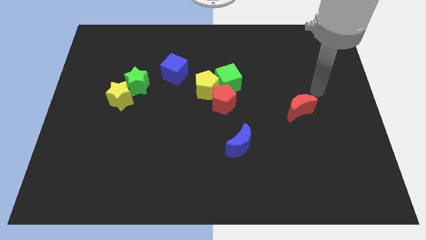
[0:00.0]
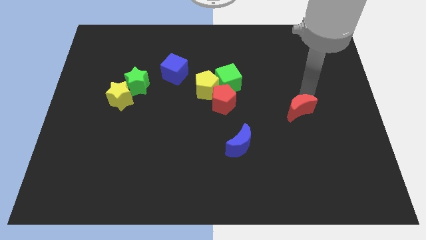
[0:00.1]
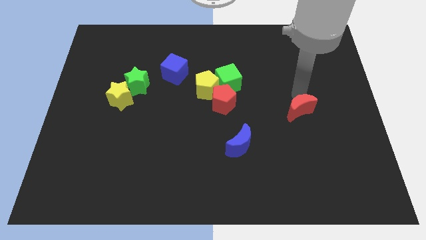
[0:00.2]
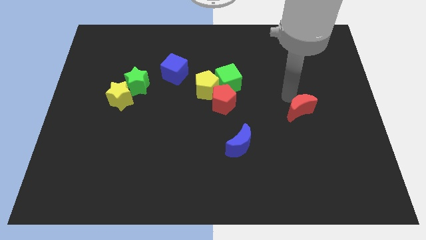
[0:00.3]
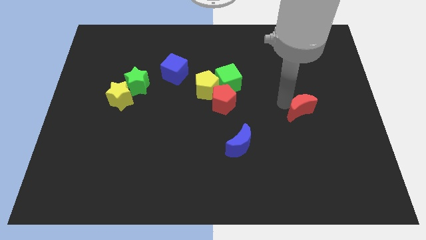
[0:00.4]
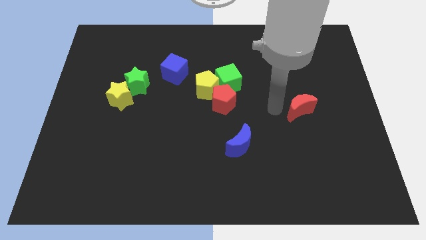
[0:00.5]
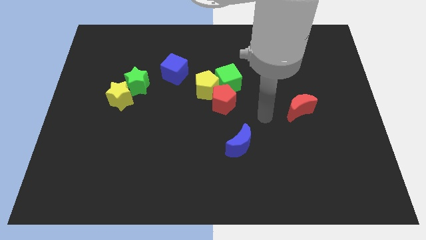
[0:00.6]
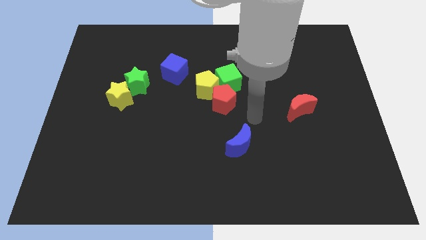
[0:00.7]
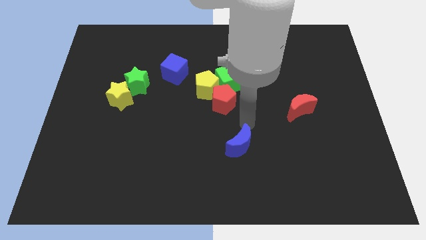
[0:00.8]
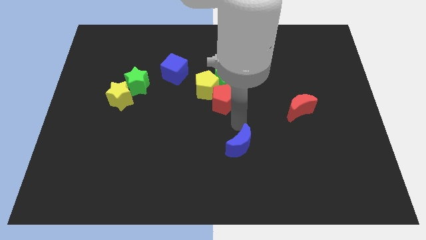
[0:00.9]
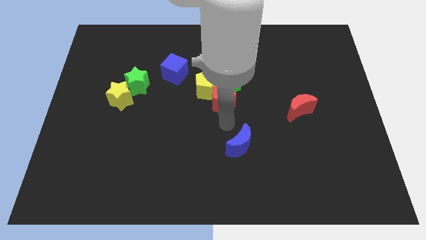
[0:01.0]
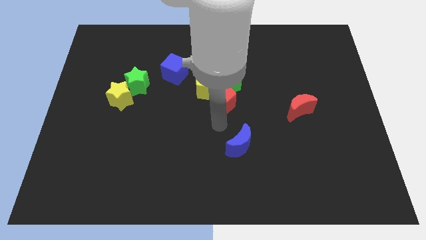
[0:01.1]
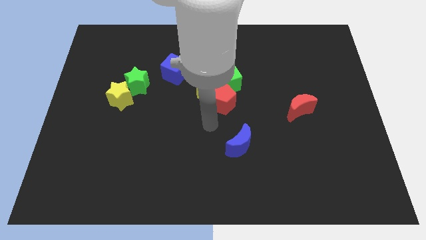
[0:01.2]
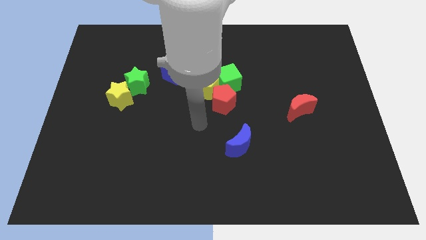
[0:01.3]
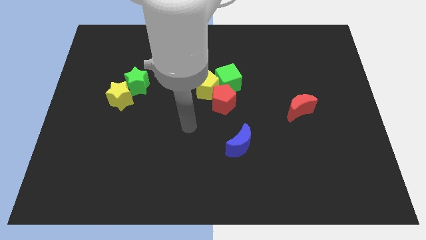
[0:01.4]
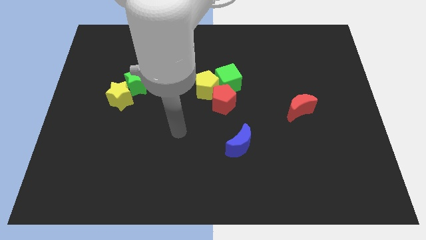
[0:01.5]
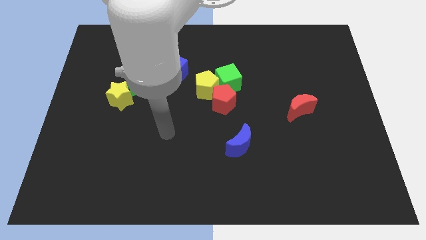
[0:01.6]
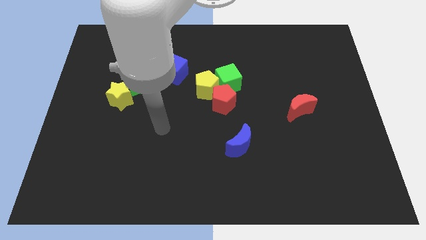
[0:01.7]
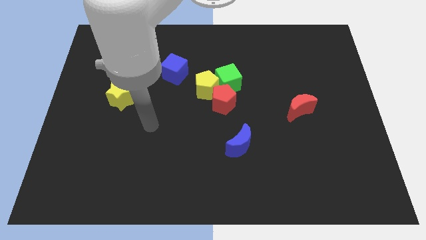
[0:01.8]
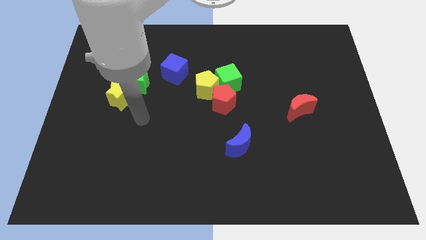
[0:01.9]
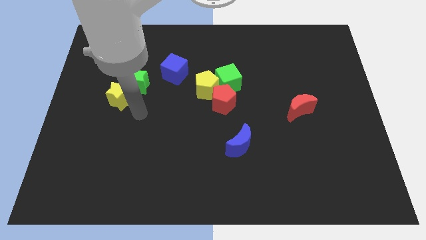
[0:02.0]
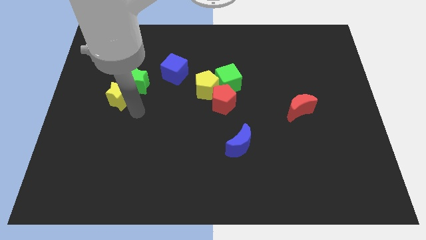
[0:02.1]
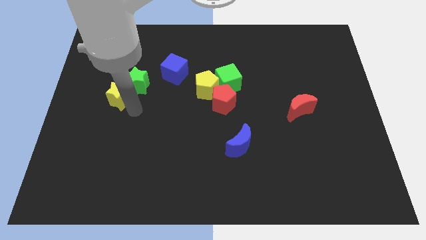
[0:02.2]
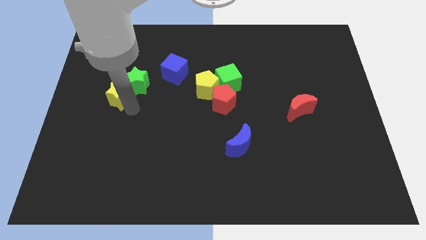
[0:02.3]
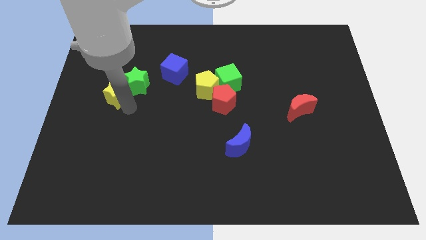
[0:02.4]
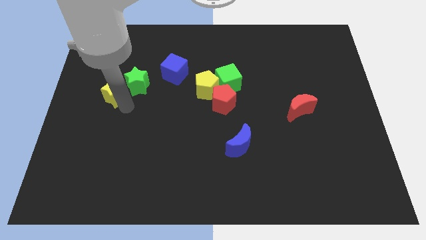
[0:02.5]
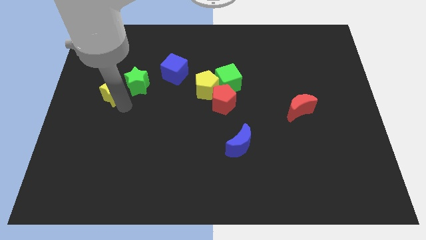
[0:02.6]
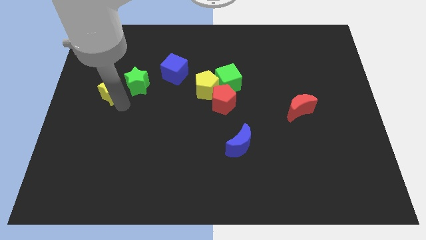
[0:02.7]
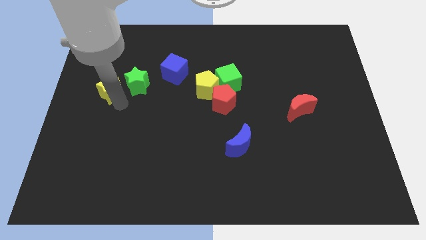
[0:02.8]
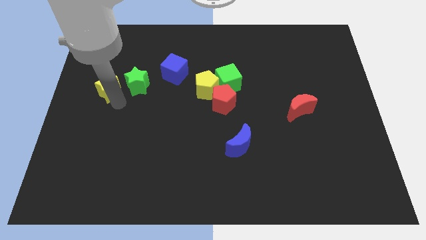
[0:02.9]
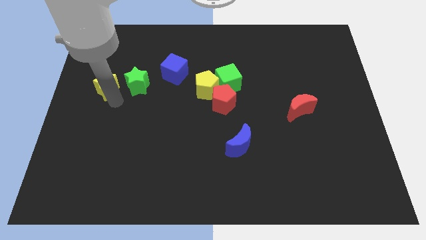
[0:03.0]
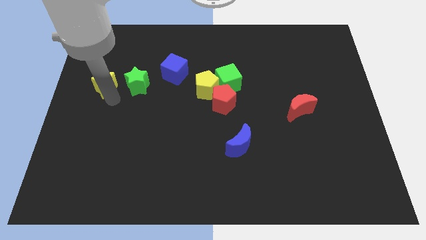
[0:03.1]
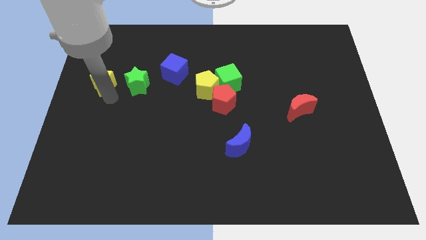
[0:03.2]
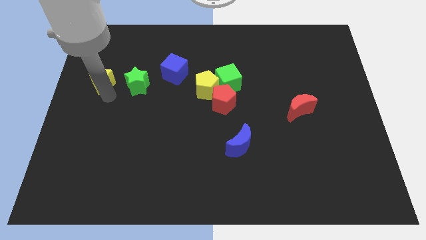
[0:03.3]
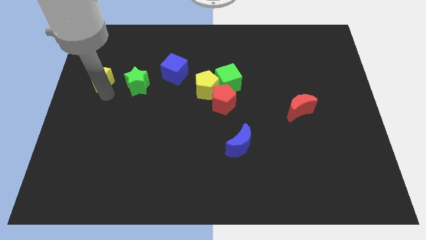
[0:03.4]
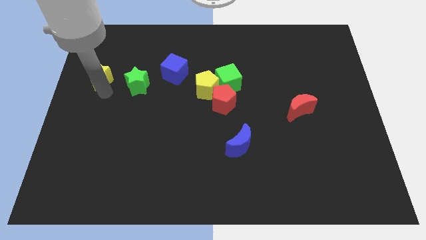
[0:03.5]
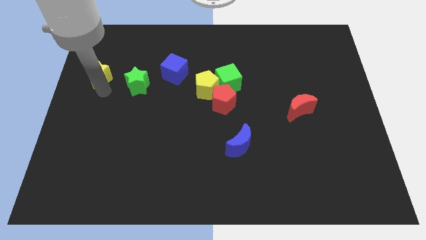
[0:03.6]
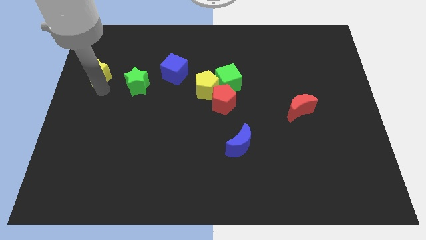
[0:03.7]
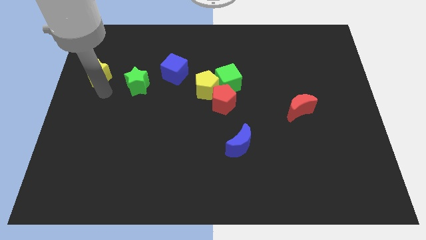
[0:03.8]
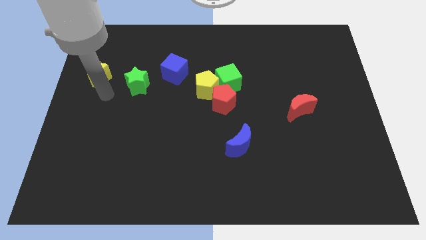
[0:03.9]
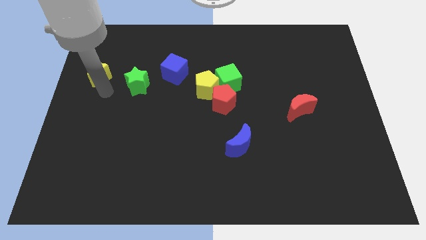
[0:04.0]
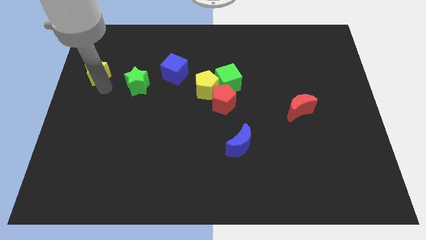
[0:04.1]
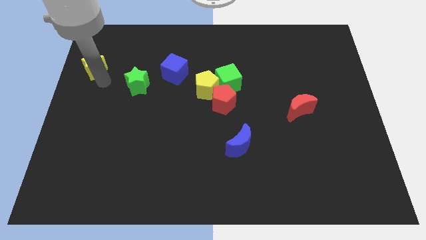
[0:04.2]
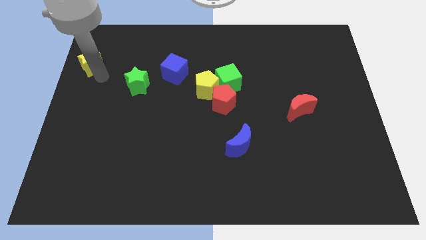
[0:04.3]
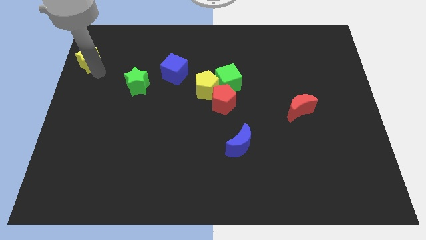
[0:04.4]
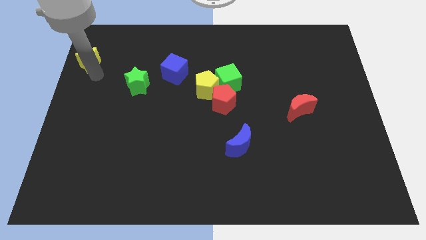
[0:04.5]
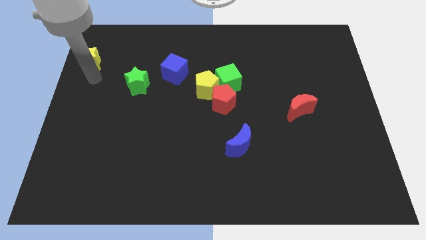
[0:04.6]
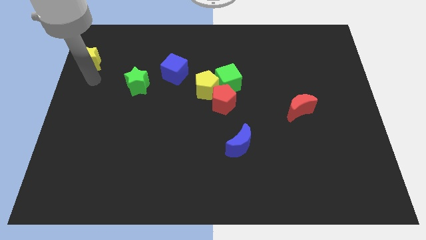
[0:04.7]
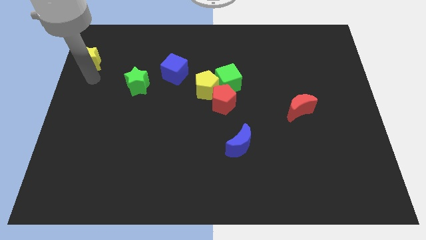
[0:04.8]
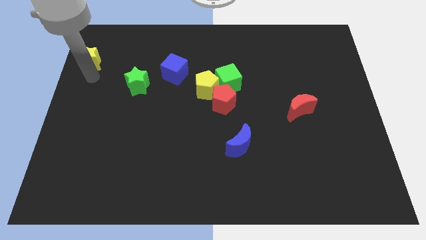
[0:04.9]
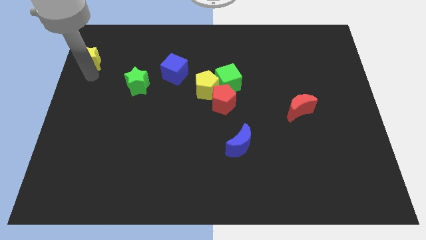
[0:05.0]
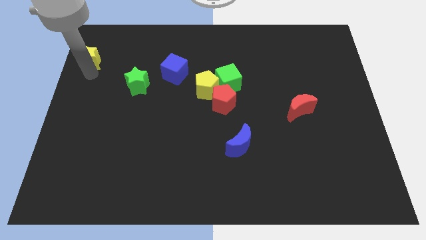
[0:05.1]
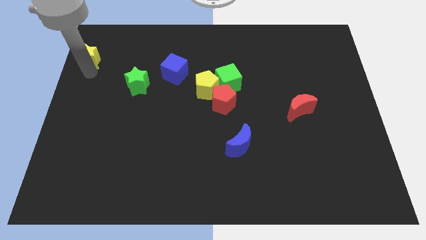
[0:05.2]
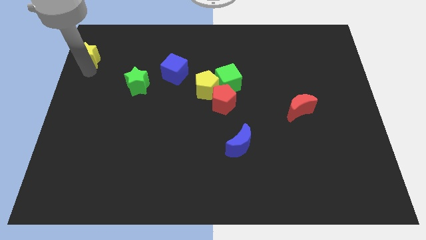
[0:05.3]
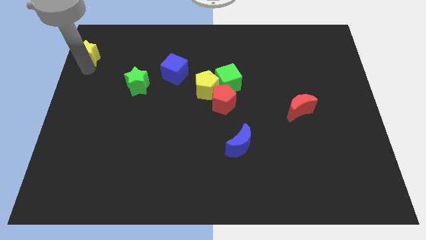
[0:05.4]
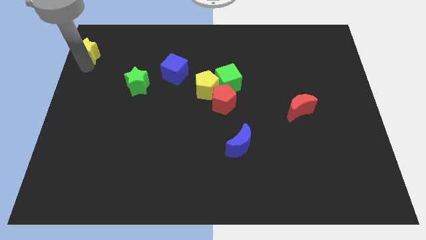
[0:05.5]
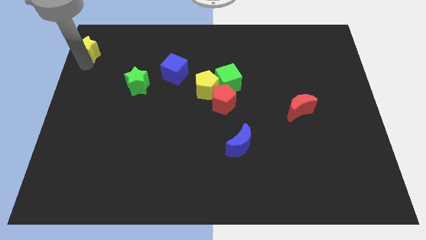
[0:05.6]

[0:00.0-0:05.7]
put the yellow star to the upper left corner
